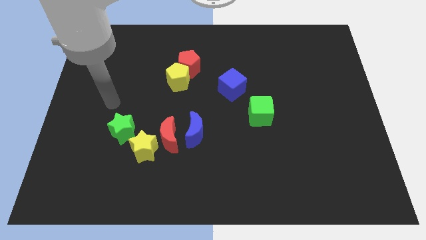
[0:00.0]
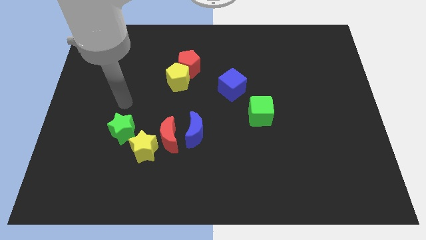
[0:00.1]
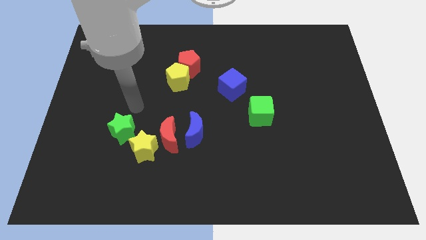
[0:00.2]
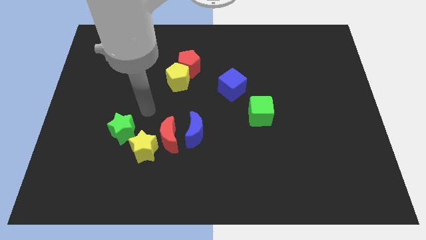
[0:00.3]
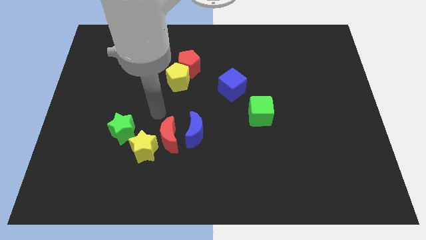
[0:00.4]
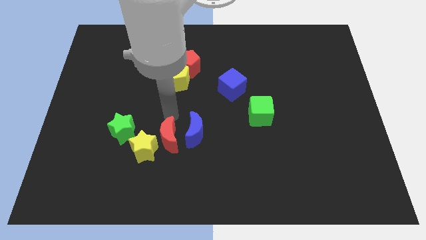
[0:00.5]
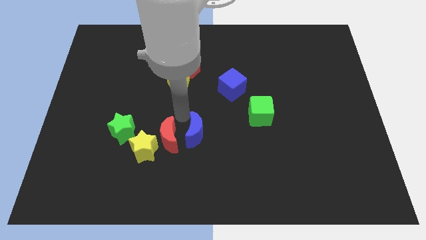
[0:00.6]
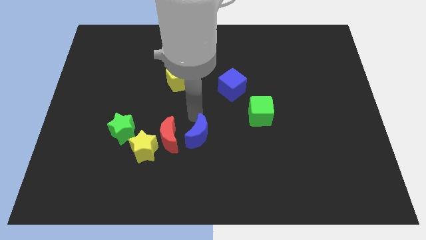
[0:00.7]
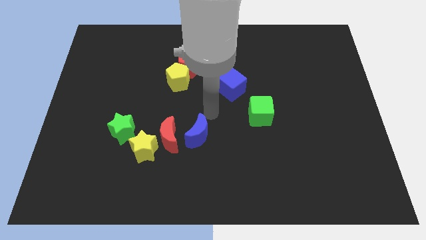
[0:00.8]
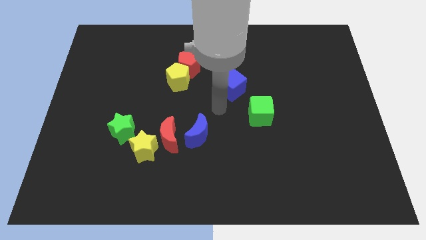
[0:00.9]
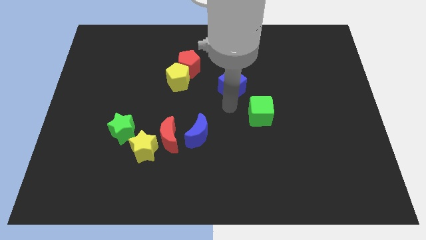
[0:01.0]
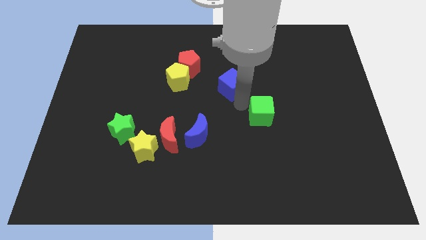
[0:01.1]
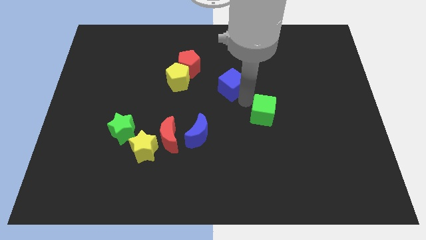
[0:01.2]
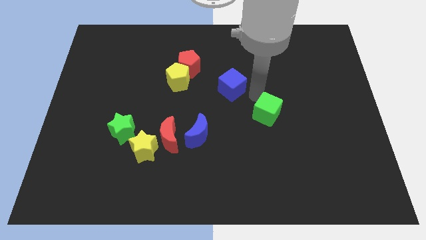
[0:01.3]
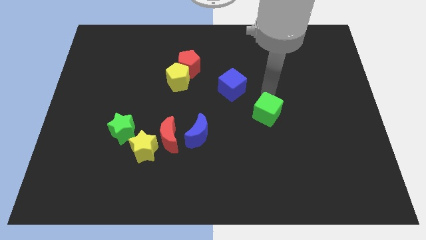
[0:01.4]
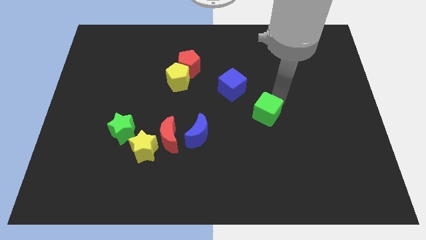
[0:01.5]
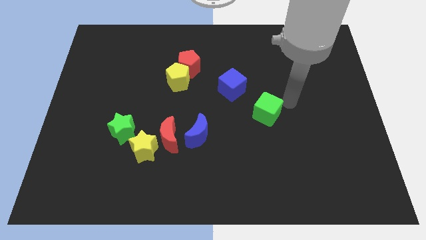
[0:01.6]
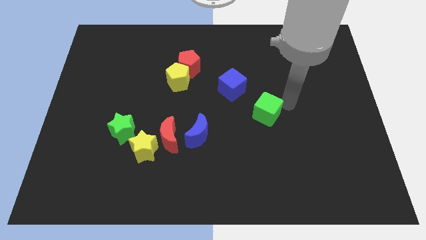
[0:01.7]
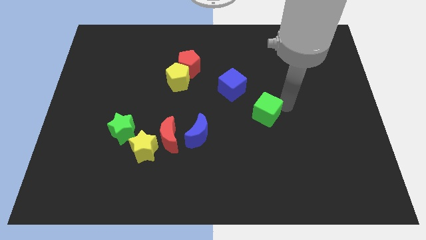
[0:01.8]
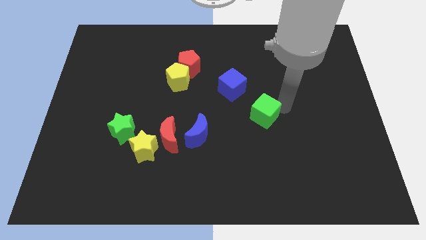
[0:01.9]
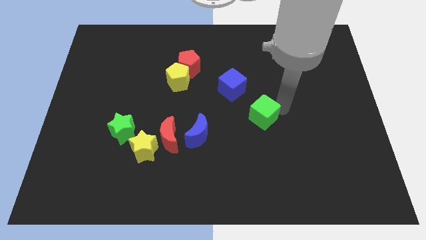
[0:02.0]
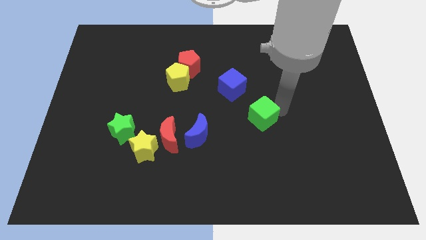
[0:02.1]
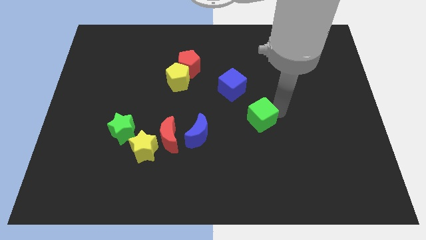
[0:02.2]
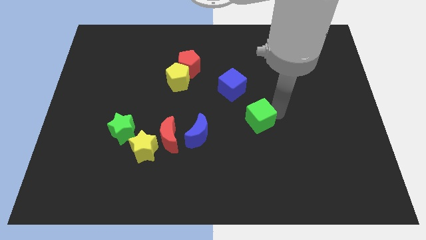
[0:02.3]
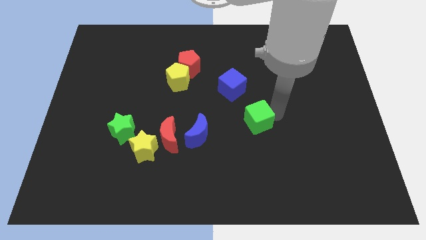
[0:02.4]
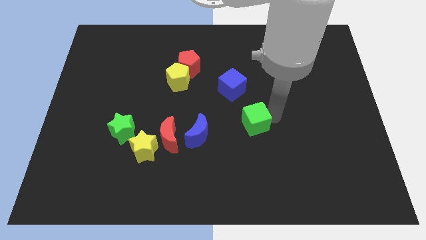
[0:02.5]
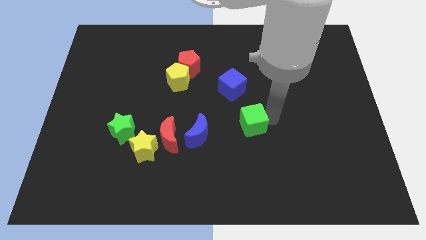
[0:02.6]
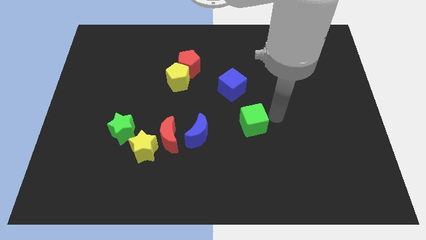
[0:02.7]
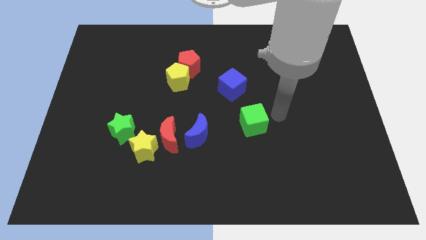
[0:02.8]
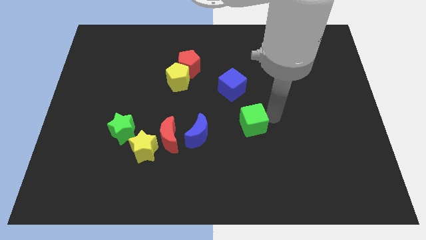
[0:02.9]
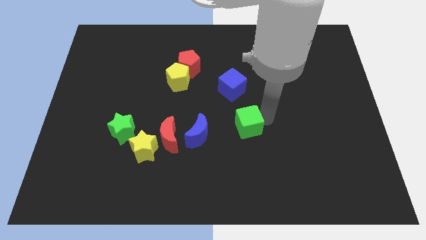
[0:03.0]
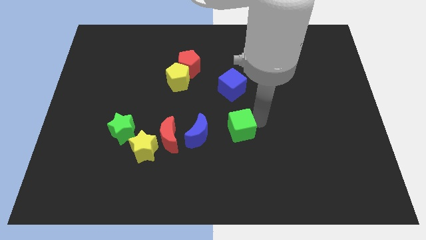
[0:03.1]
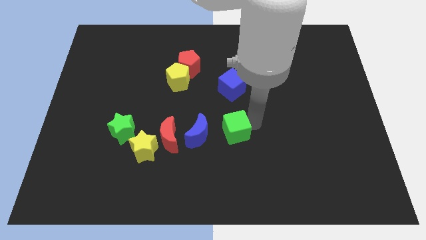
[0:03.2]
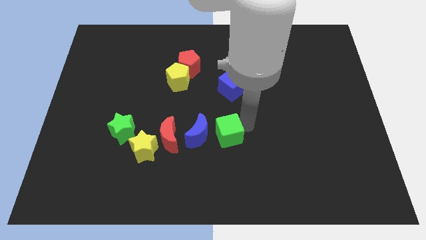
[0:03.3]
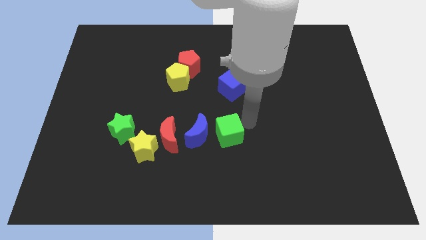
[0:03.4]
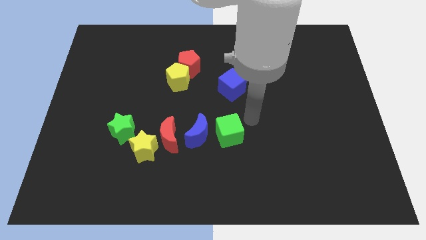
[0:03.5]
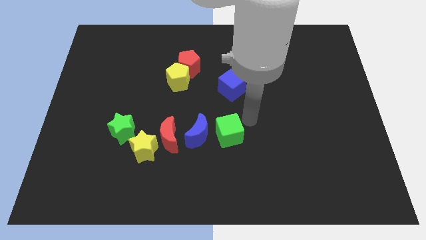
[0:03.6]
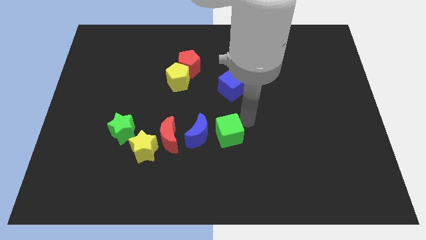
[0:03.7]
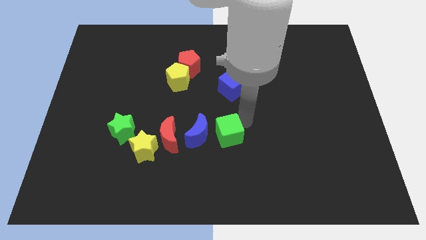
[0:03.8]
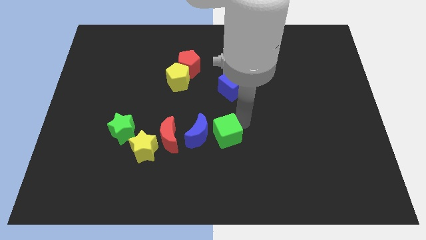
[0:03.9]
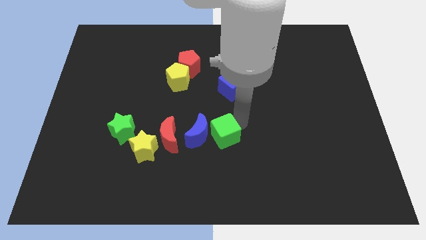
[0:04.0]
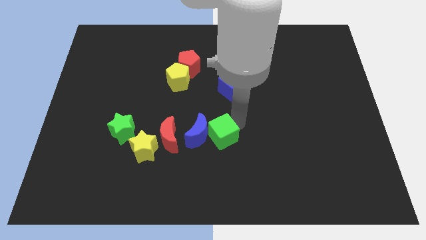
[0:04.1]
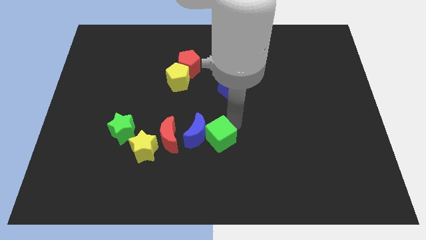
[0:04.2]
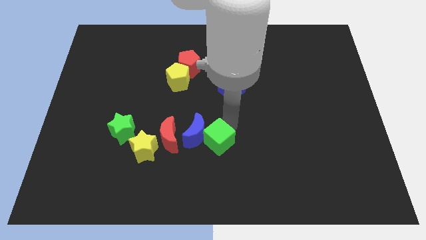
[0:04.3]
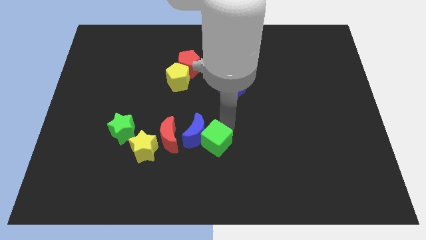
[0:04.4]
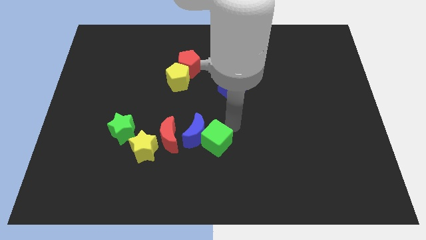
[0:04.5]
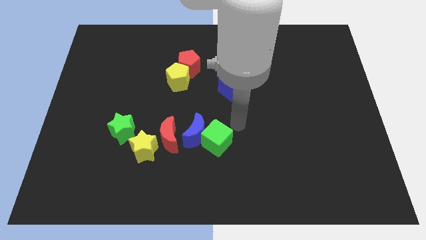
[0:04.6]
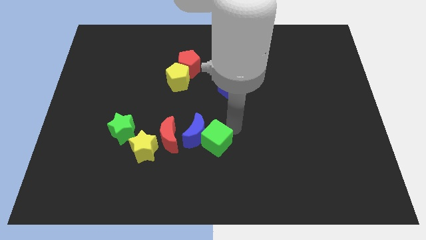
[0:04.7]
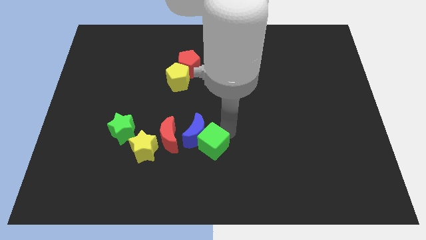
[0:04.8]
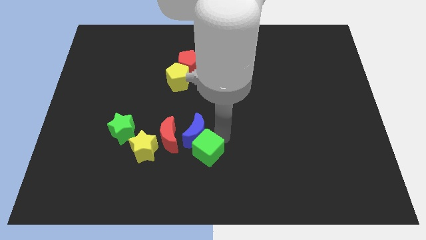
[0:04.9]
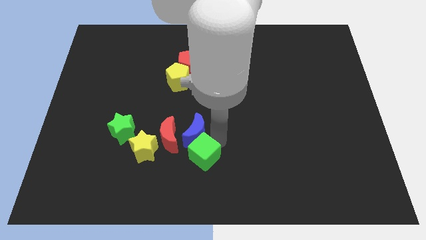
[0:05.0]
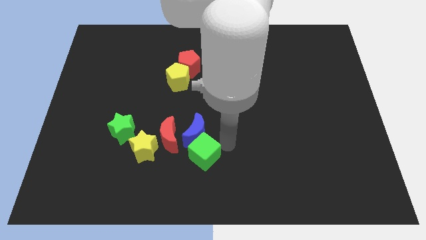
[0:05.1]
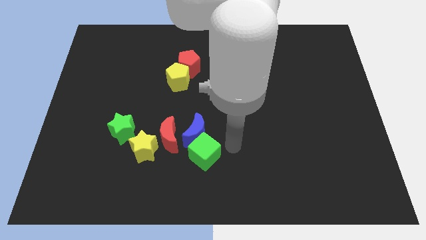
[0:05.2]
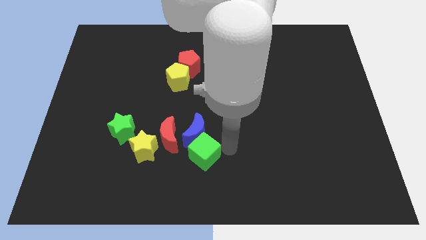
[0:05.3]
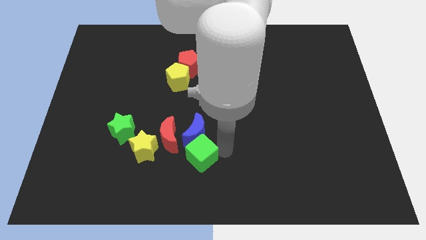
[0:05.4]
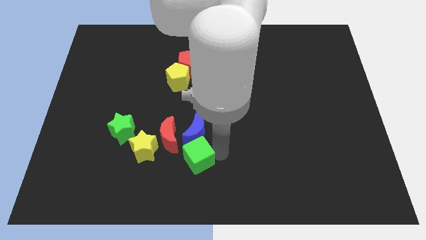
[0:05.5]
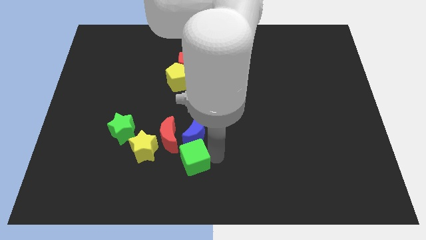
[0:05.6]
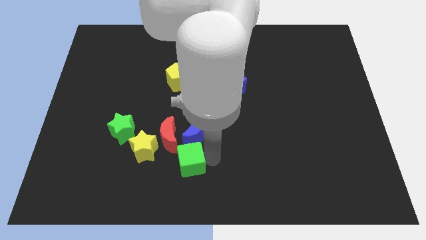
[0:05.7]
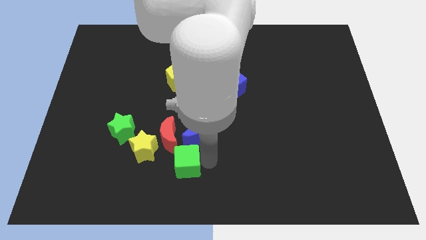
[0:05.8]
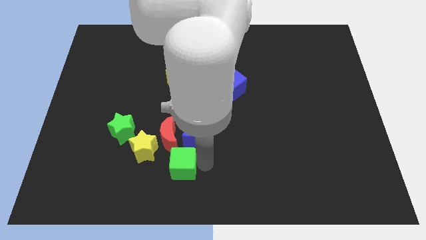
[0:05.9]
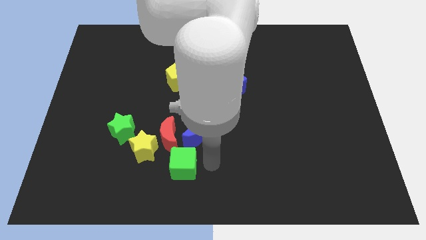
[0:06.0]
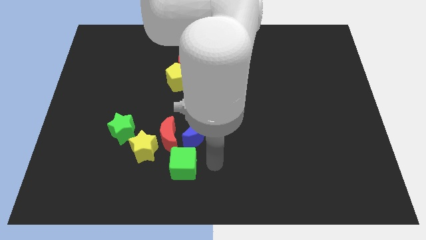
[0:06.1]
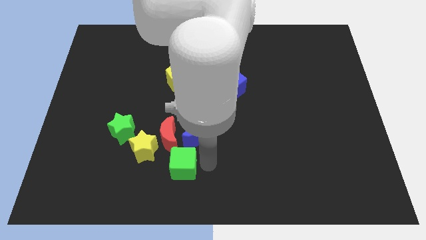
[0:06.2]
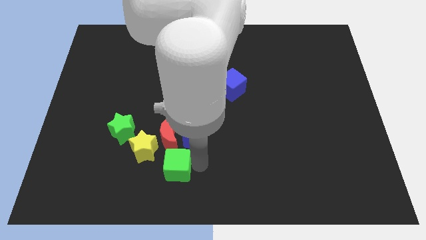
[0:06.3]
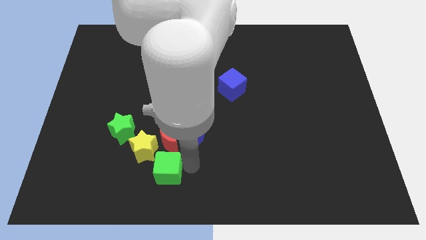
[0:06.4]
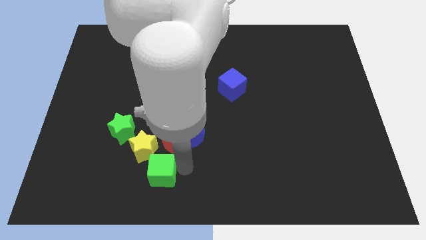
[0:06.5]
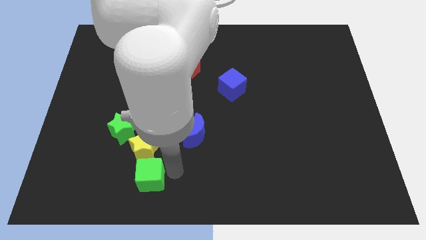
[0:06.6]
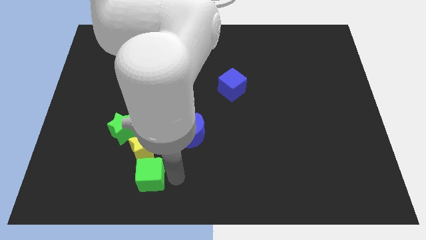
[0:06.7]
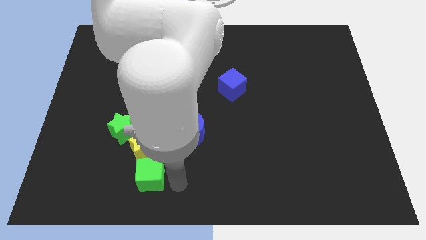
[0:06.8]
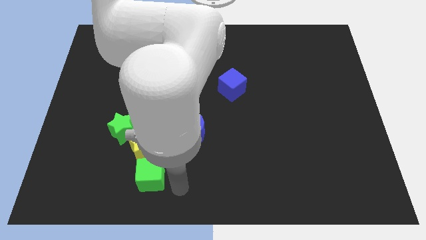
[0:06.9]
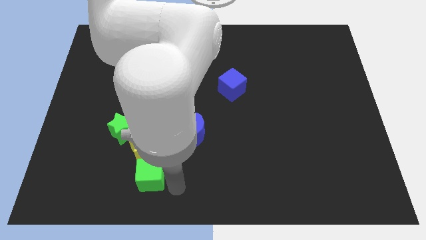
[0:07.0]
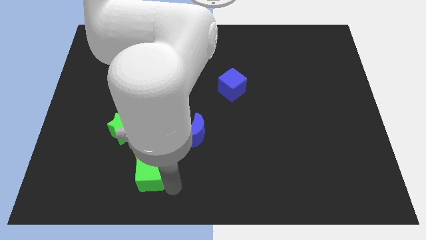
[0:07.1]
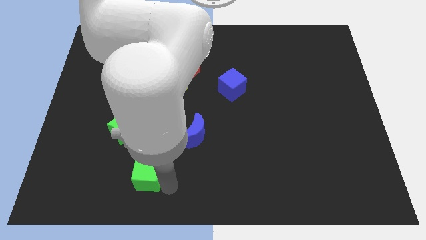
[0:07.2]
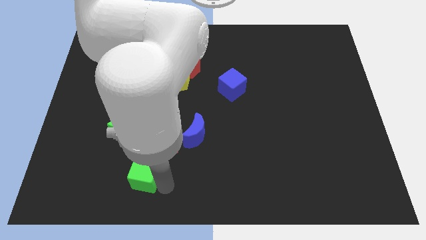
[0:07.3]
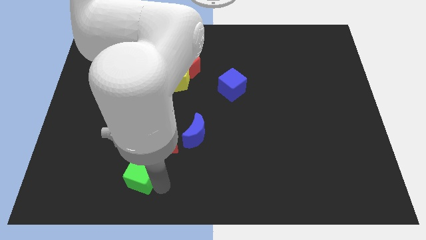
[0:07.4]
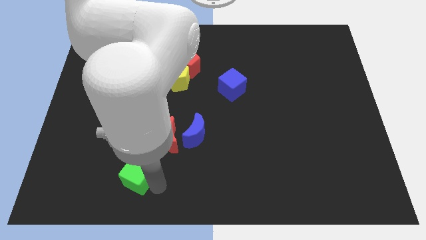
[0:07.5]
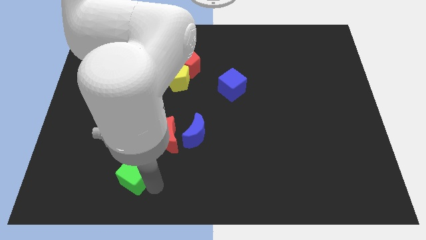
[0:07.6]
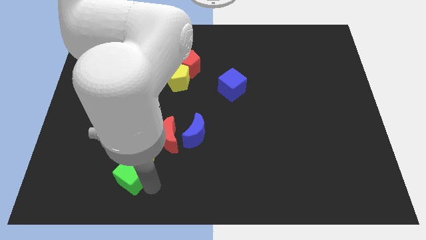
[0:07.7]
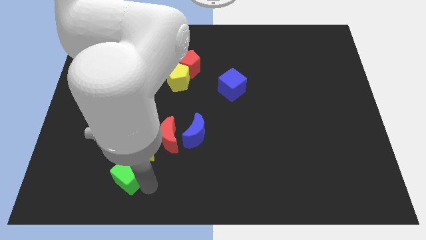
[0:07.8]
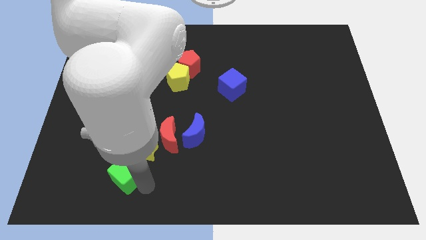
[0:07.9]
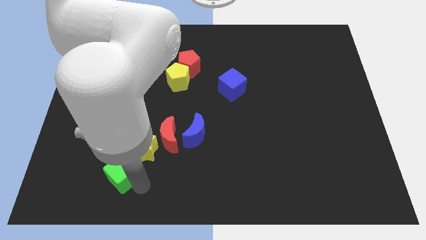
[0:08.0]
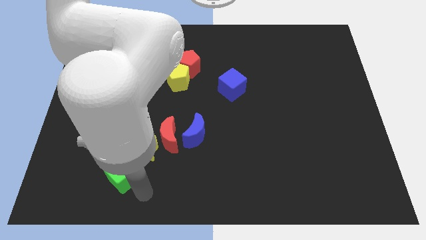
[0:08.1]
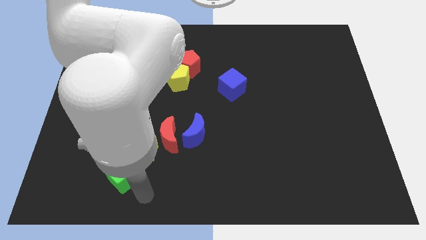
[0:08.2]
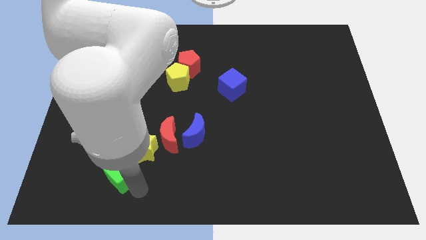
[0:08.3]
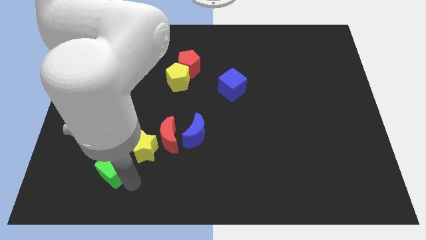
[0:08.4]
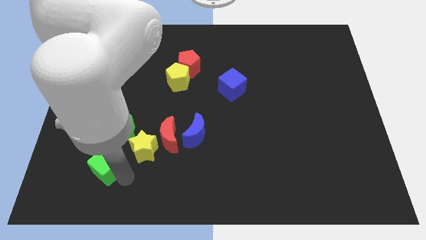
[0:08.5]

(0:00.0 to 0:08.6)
put the green cube left of the yellow star
